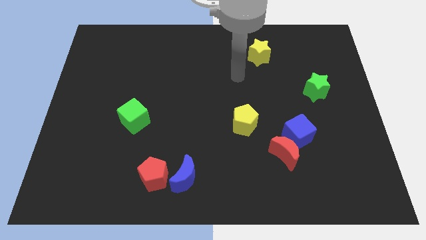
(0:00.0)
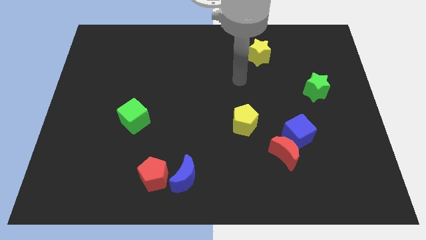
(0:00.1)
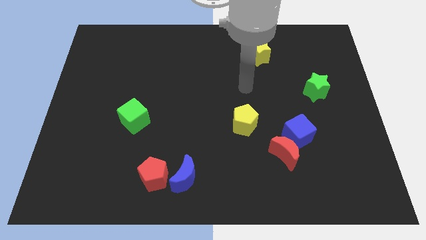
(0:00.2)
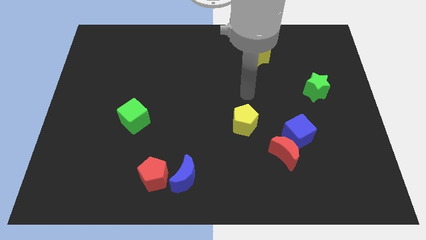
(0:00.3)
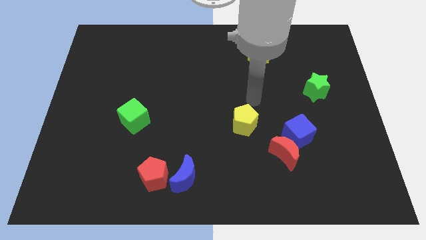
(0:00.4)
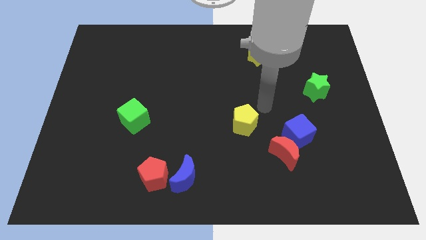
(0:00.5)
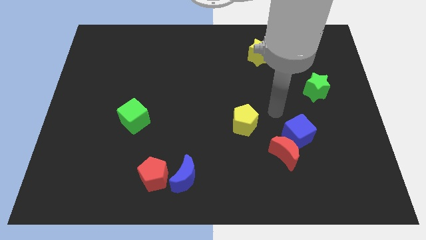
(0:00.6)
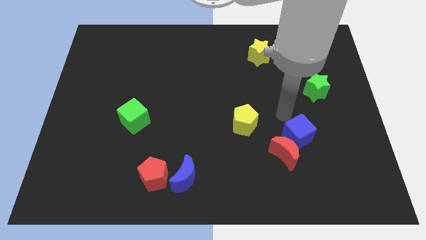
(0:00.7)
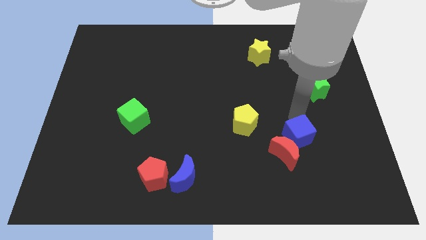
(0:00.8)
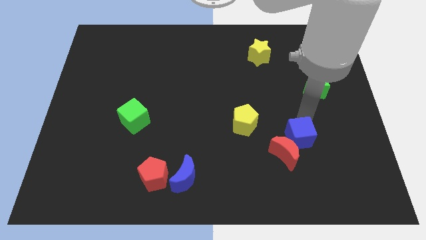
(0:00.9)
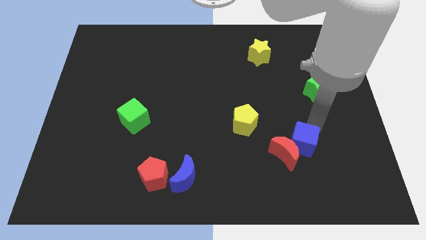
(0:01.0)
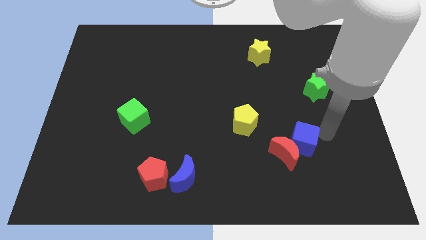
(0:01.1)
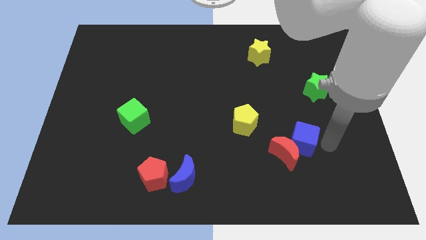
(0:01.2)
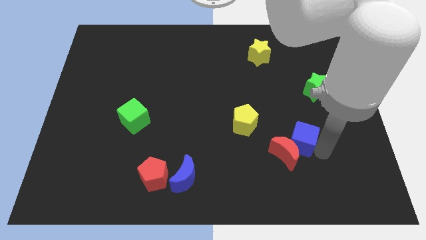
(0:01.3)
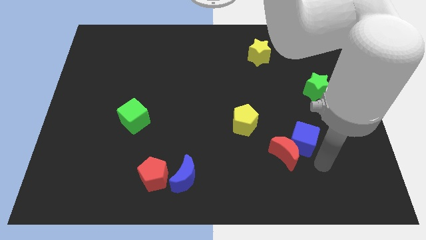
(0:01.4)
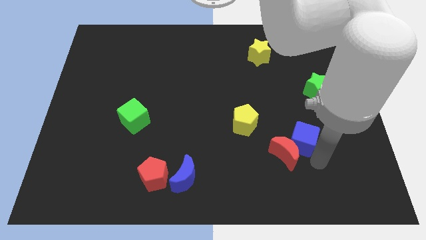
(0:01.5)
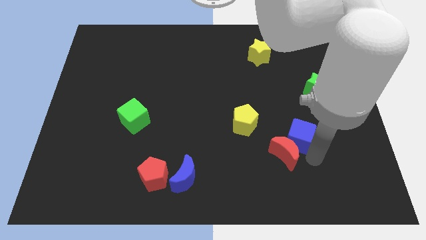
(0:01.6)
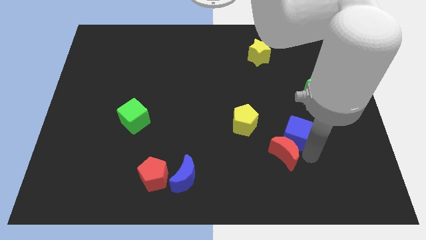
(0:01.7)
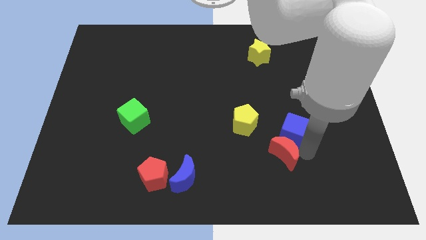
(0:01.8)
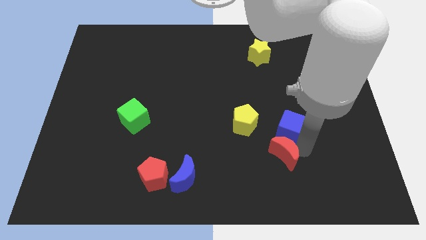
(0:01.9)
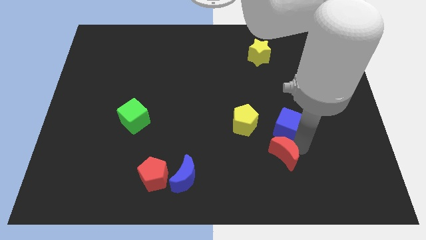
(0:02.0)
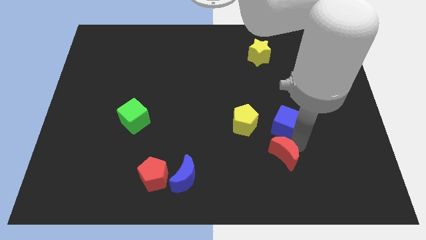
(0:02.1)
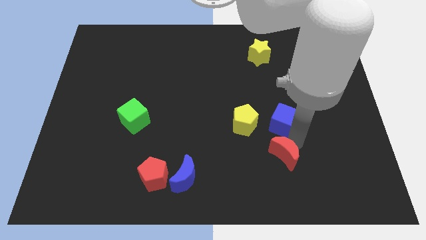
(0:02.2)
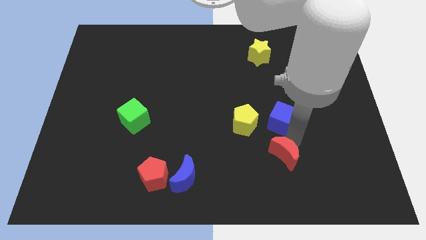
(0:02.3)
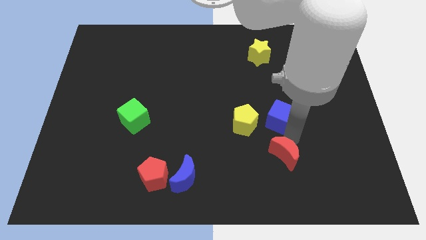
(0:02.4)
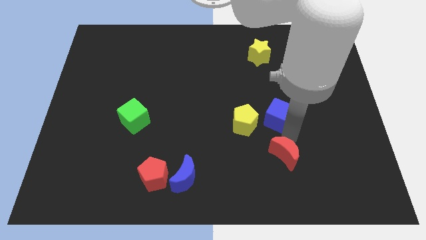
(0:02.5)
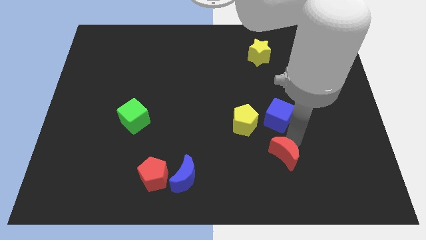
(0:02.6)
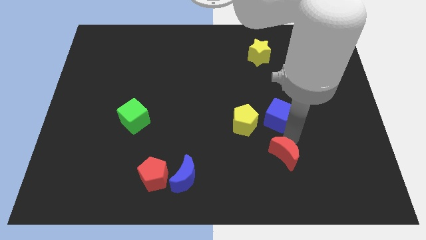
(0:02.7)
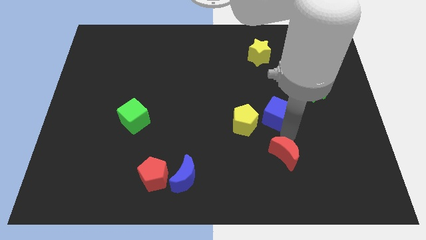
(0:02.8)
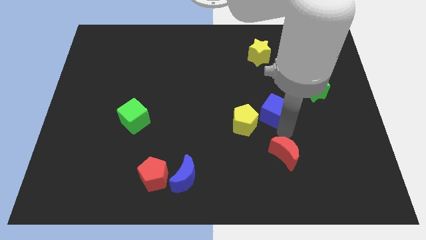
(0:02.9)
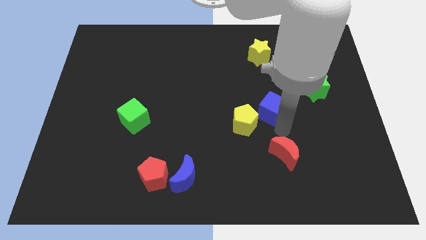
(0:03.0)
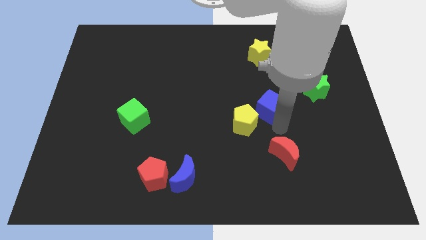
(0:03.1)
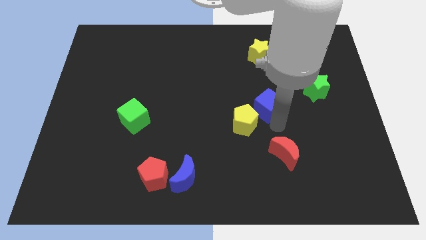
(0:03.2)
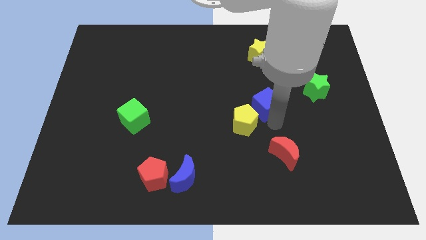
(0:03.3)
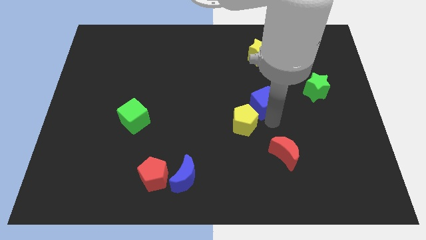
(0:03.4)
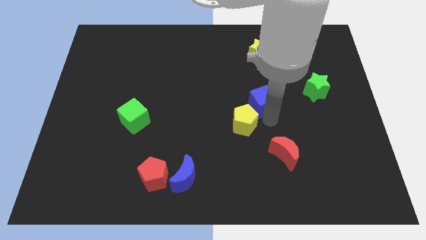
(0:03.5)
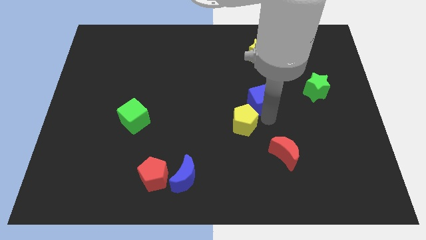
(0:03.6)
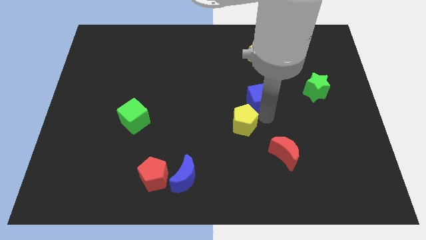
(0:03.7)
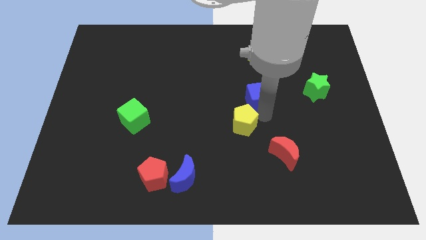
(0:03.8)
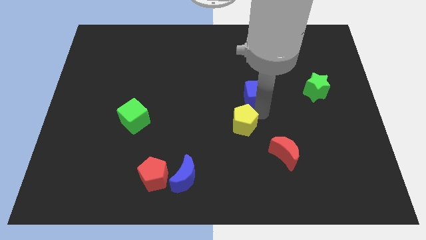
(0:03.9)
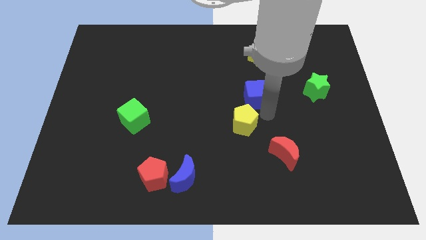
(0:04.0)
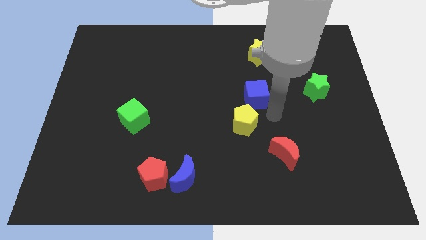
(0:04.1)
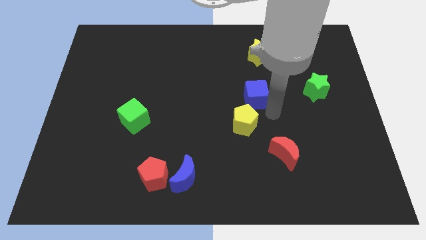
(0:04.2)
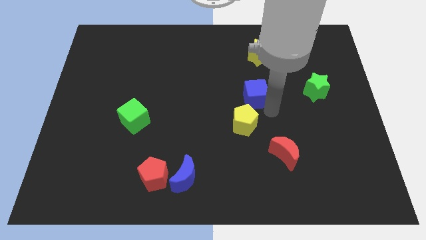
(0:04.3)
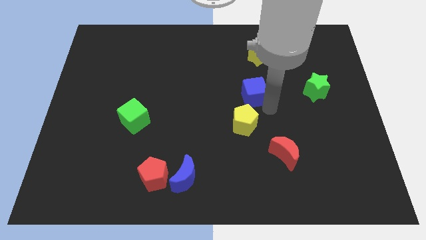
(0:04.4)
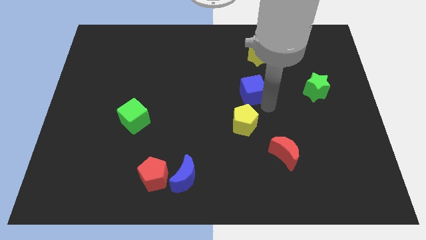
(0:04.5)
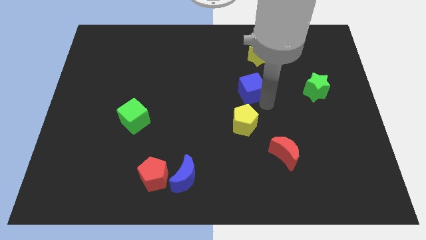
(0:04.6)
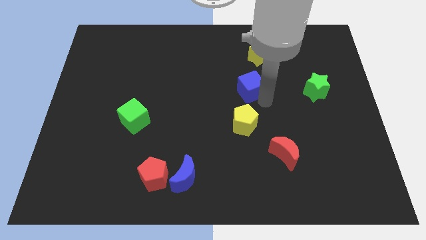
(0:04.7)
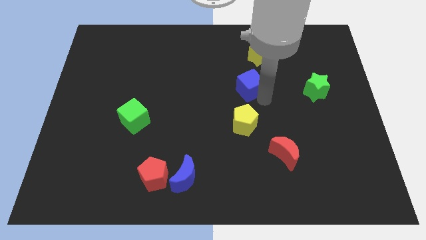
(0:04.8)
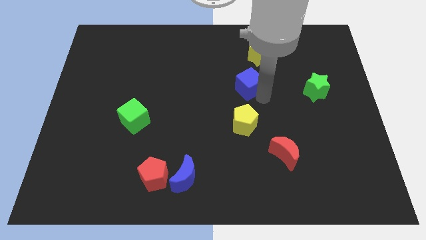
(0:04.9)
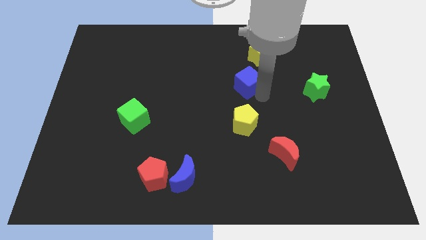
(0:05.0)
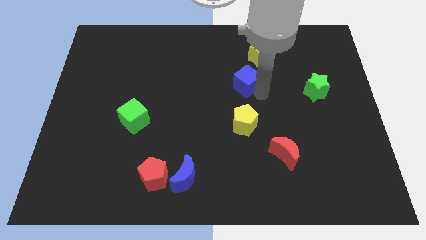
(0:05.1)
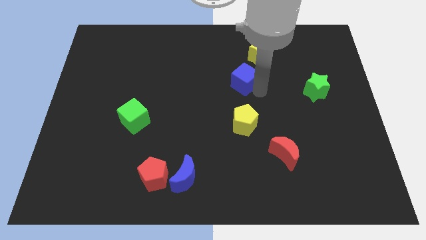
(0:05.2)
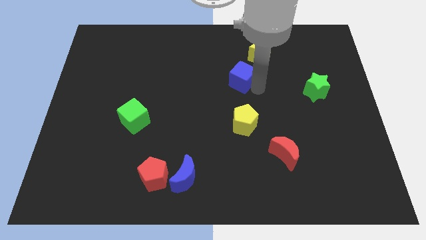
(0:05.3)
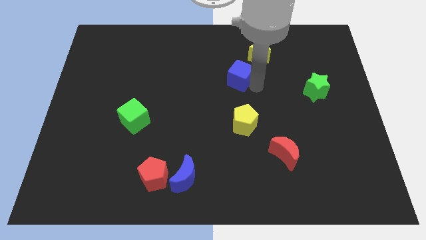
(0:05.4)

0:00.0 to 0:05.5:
push the blue cube up and left

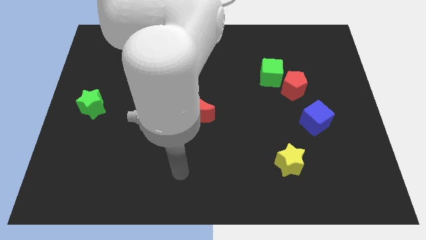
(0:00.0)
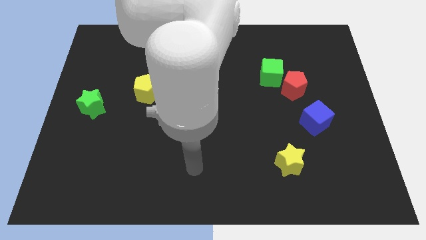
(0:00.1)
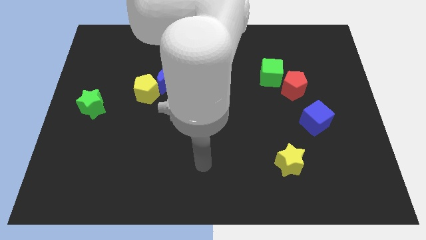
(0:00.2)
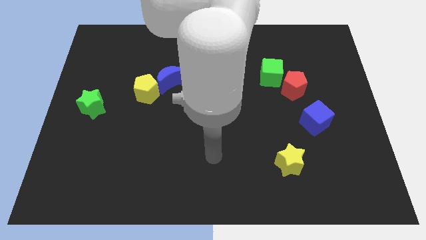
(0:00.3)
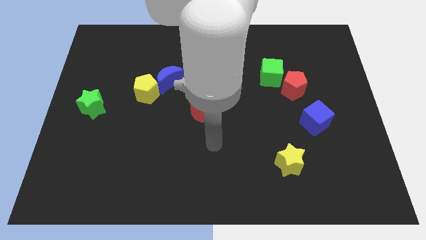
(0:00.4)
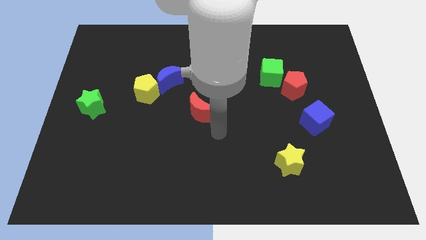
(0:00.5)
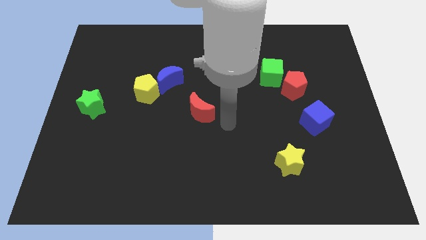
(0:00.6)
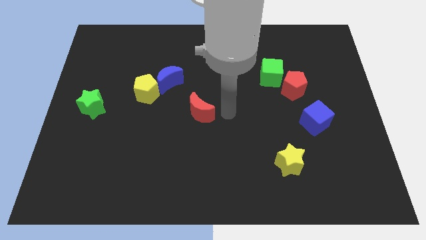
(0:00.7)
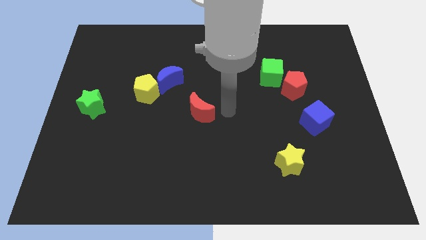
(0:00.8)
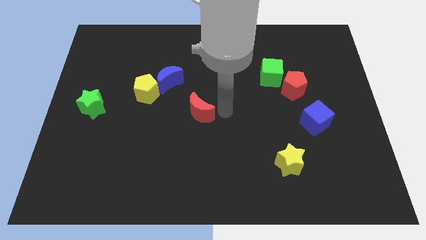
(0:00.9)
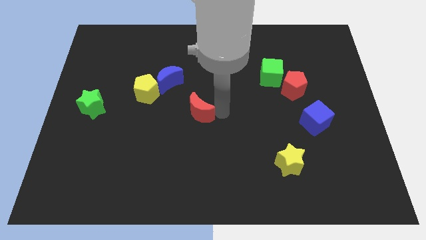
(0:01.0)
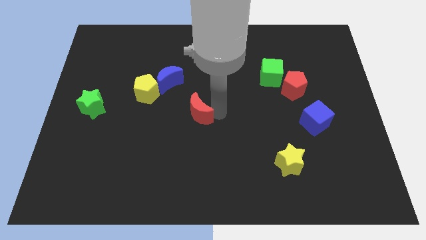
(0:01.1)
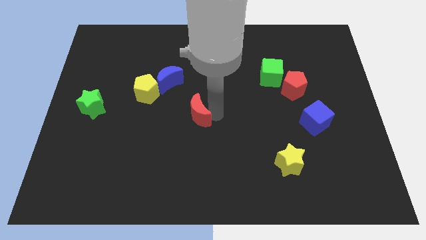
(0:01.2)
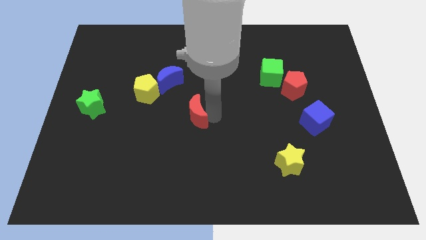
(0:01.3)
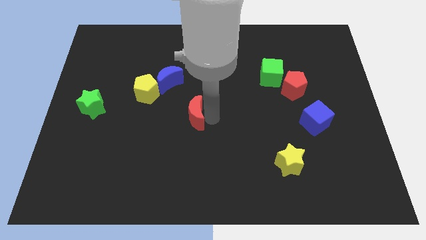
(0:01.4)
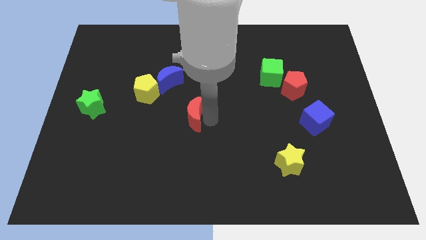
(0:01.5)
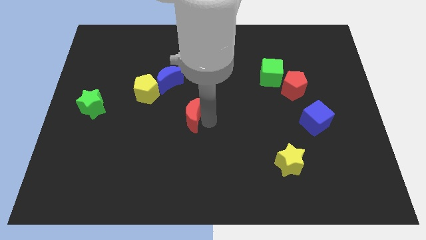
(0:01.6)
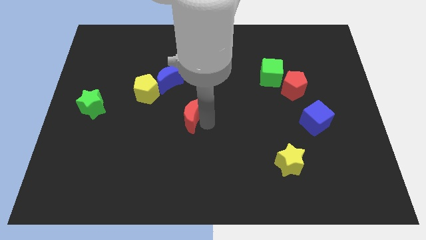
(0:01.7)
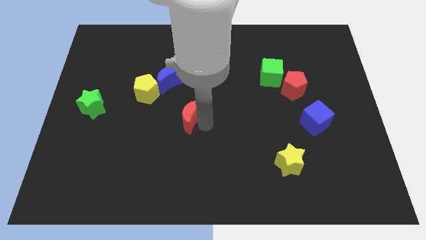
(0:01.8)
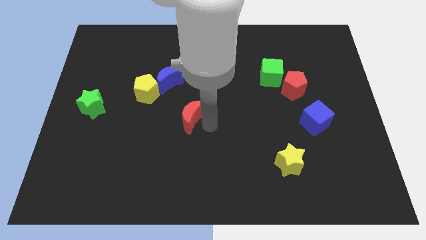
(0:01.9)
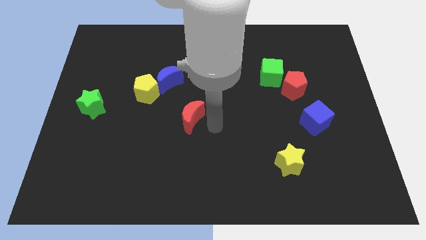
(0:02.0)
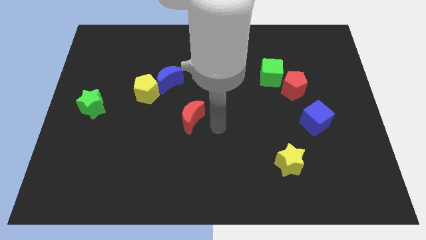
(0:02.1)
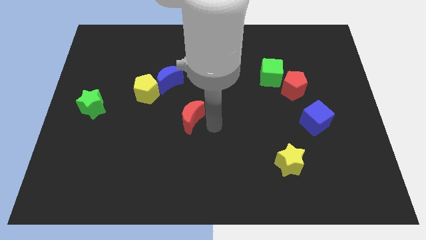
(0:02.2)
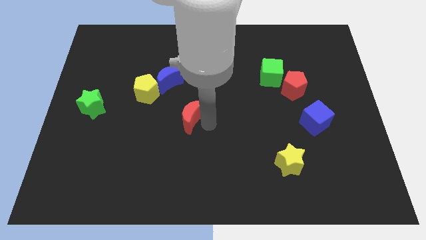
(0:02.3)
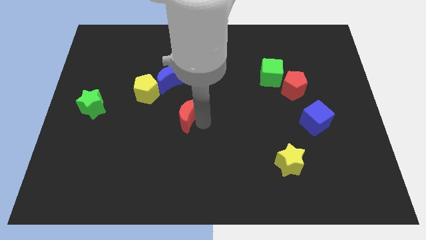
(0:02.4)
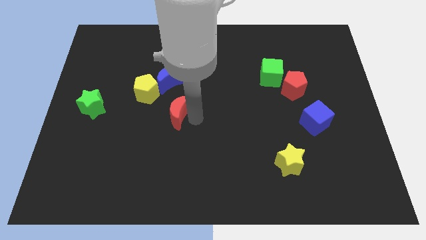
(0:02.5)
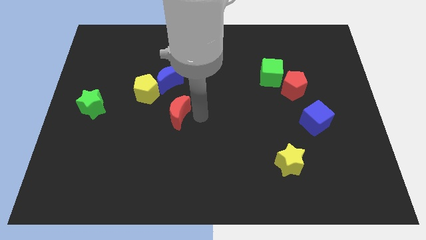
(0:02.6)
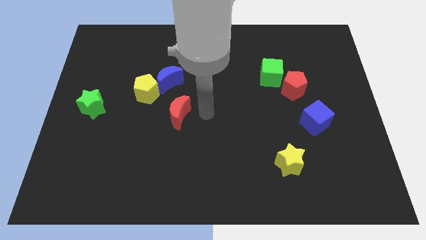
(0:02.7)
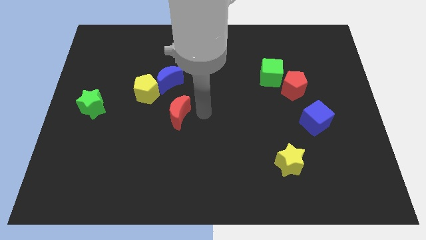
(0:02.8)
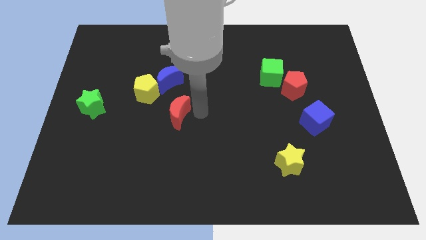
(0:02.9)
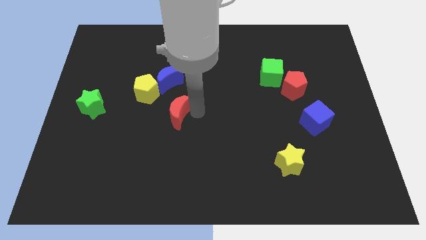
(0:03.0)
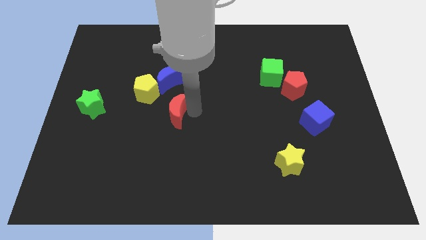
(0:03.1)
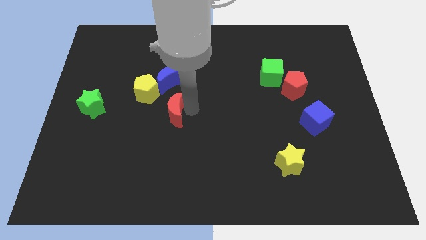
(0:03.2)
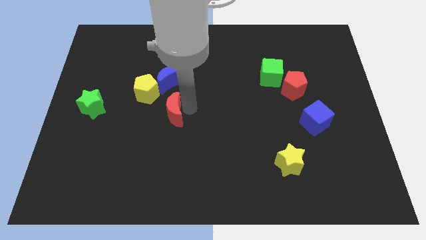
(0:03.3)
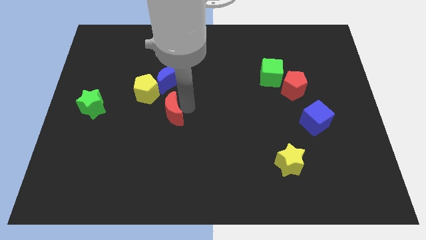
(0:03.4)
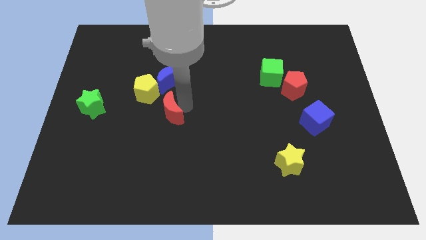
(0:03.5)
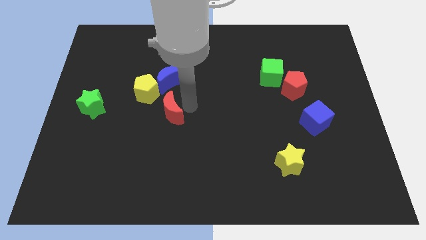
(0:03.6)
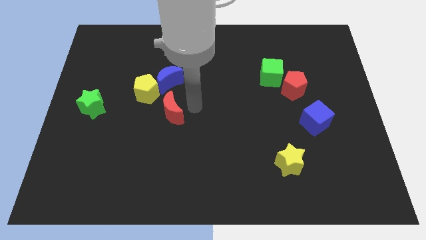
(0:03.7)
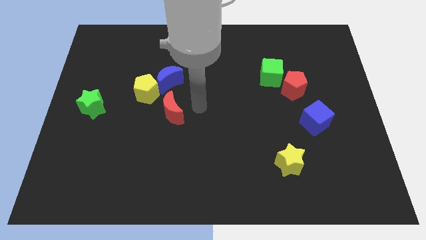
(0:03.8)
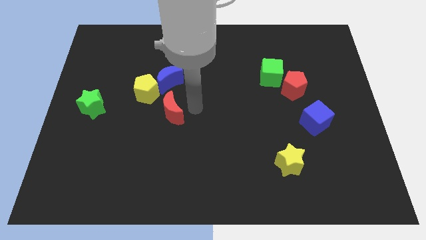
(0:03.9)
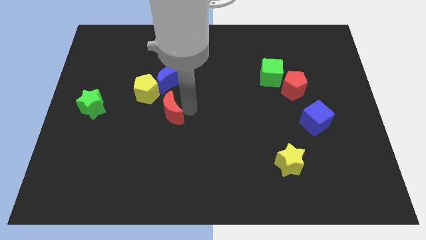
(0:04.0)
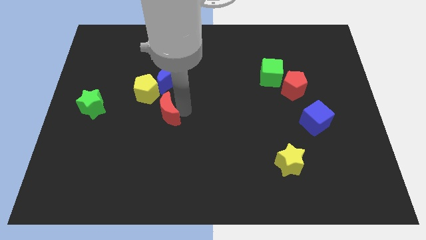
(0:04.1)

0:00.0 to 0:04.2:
push the red moon a little to the left
